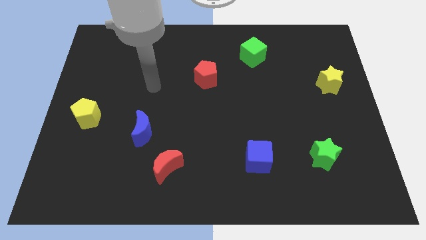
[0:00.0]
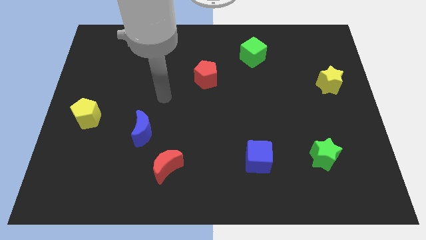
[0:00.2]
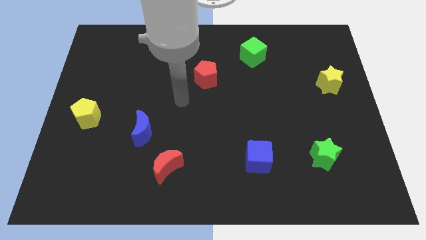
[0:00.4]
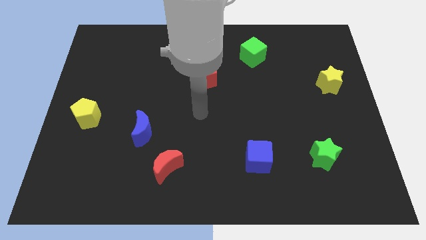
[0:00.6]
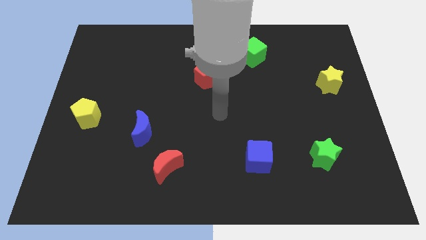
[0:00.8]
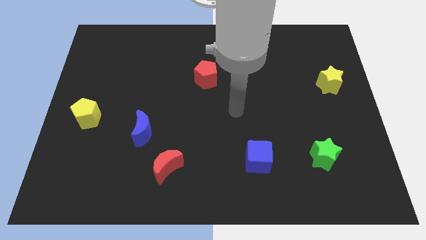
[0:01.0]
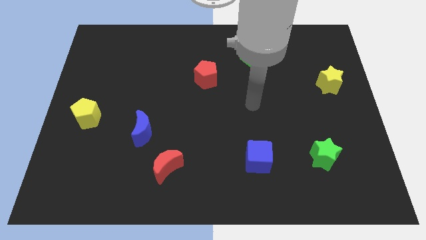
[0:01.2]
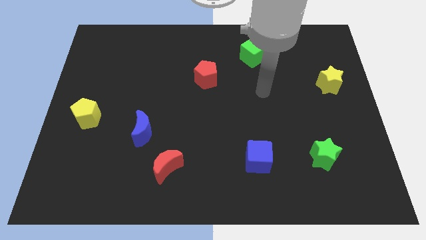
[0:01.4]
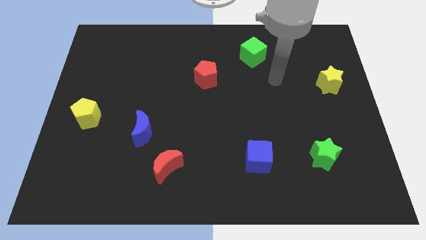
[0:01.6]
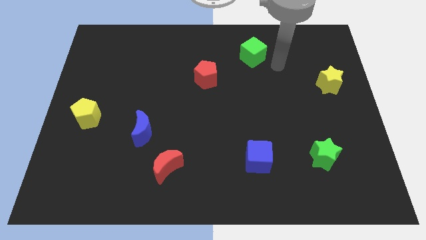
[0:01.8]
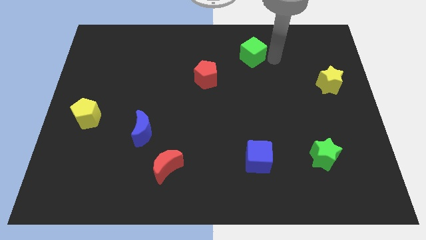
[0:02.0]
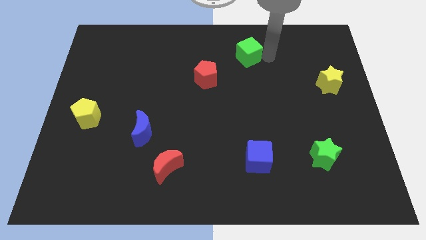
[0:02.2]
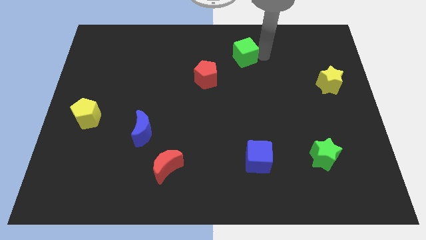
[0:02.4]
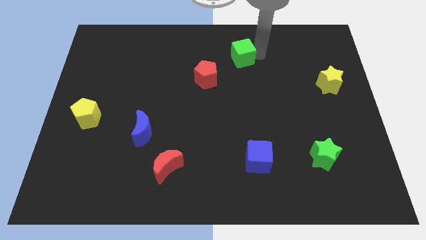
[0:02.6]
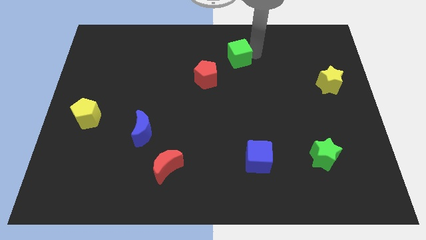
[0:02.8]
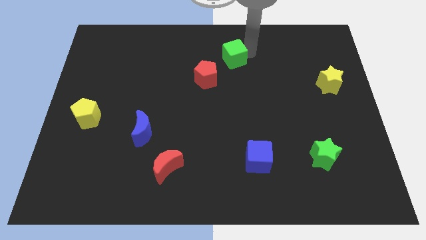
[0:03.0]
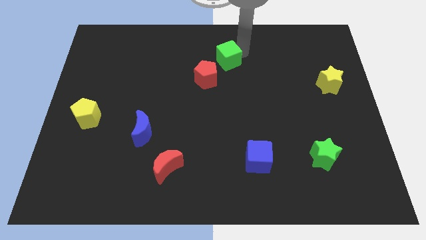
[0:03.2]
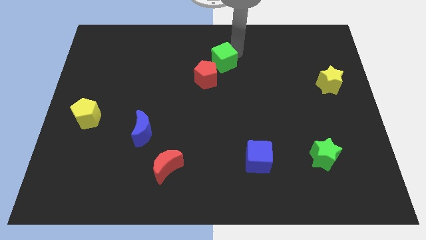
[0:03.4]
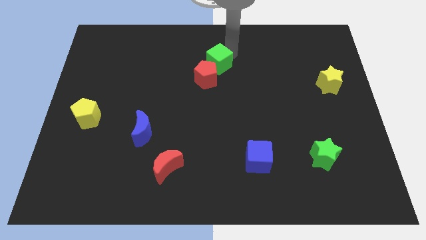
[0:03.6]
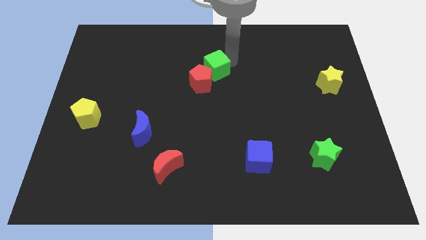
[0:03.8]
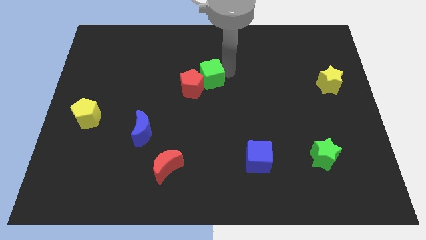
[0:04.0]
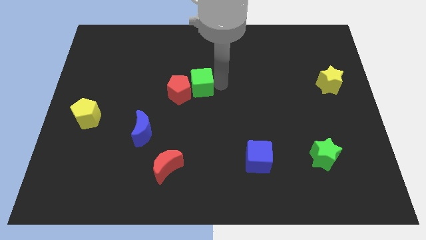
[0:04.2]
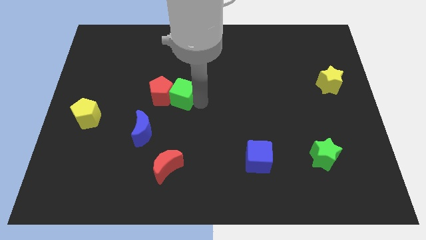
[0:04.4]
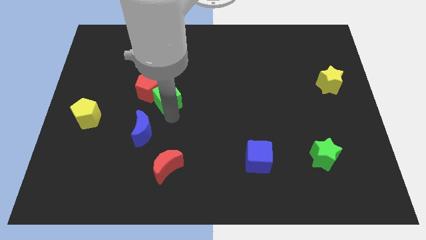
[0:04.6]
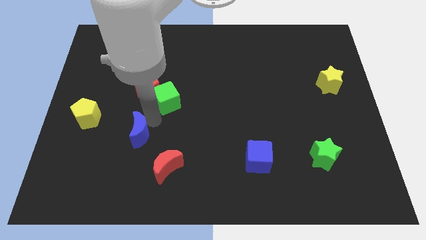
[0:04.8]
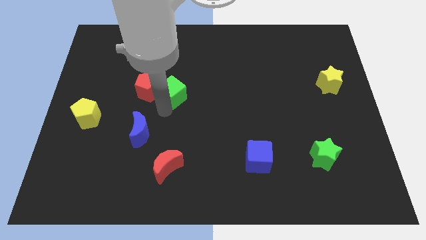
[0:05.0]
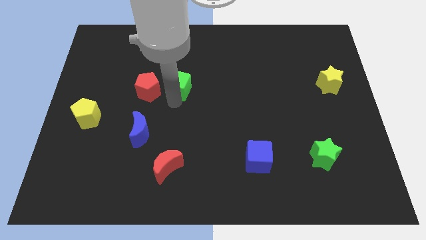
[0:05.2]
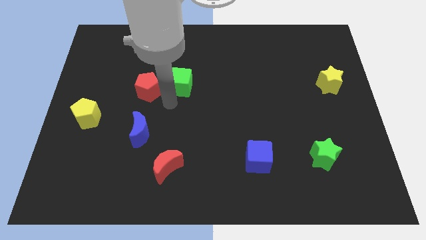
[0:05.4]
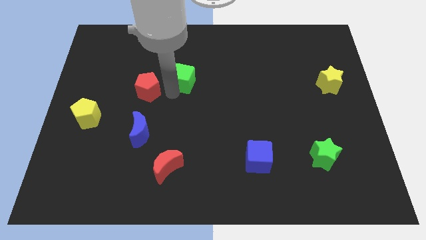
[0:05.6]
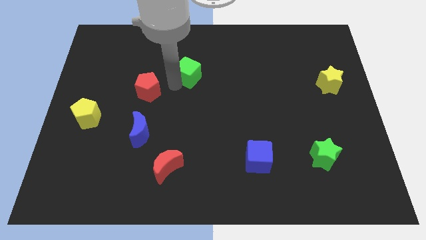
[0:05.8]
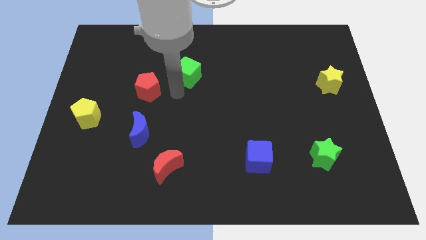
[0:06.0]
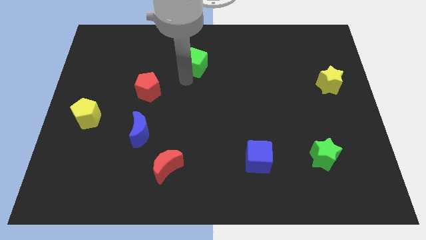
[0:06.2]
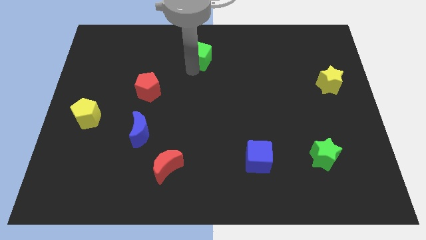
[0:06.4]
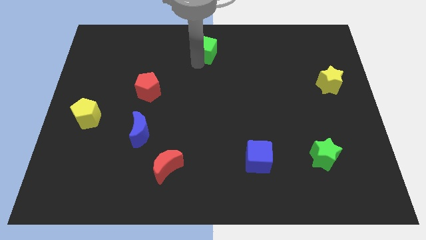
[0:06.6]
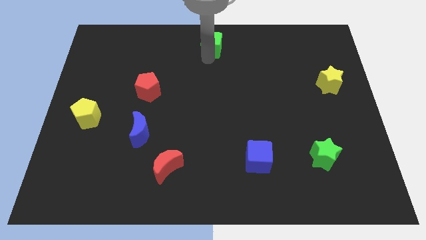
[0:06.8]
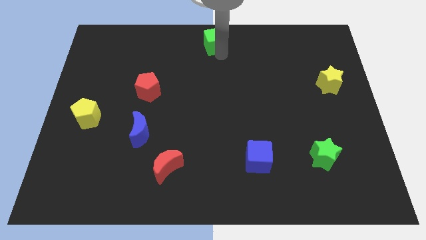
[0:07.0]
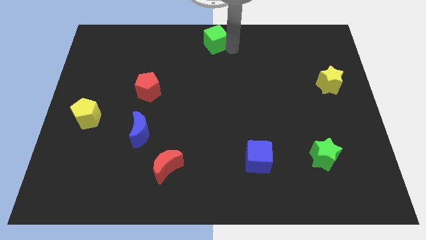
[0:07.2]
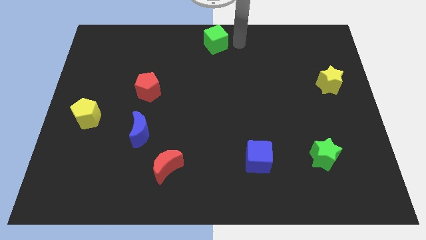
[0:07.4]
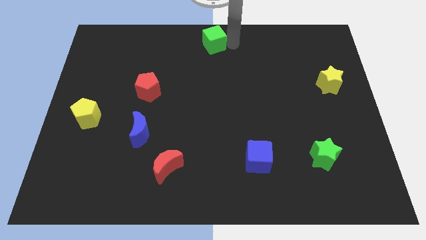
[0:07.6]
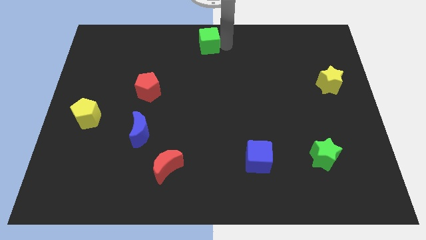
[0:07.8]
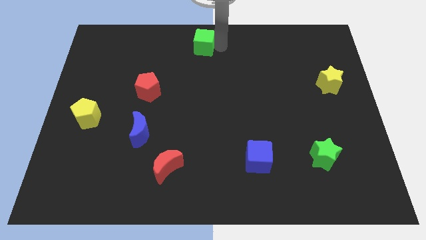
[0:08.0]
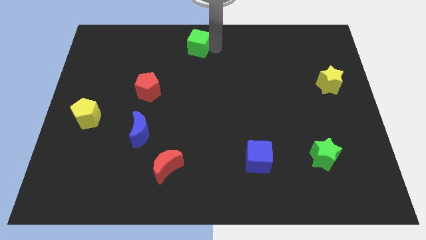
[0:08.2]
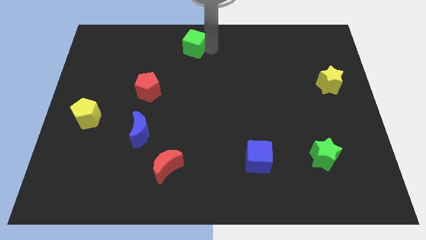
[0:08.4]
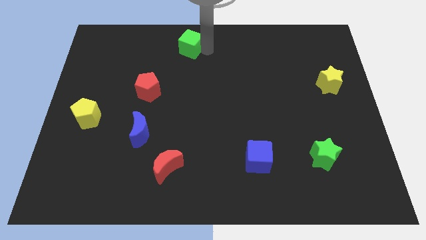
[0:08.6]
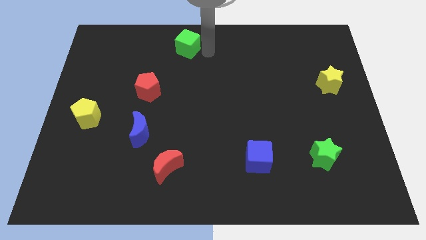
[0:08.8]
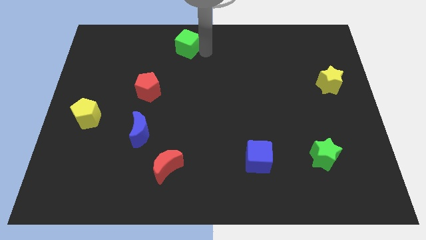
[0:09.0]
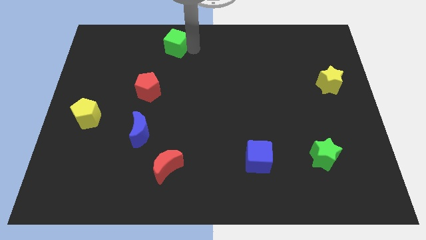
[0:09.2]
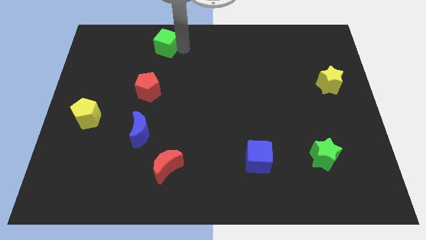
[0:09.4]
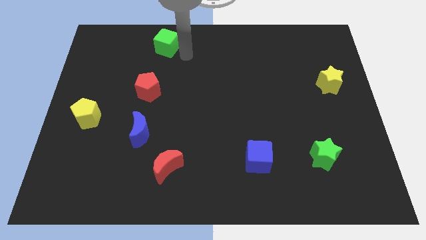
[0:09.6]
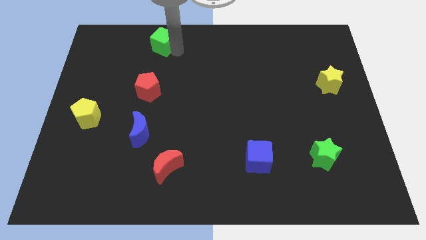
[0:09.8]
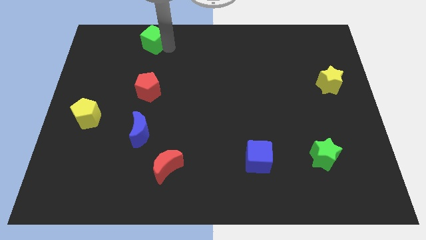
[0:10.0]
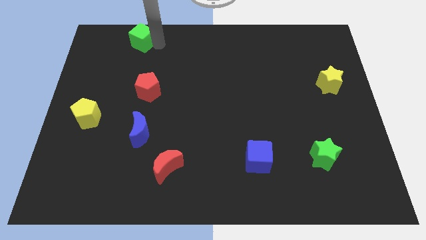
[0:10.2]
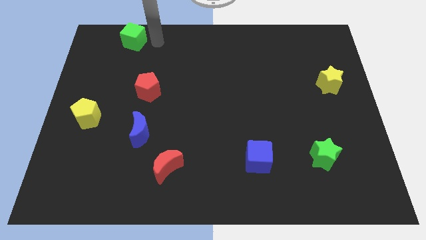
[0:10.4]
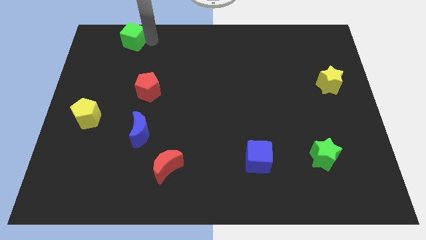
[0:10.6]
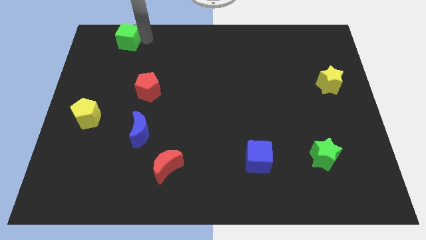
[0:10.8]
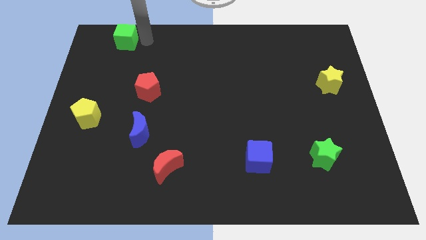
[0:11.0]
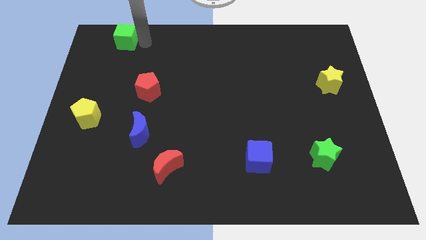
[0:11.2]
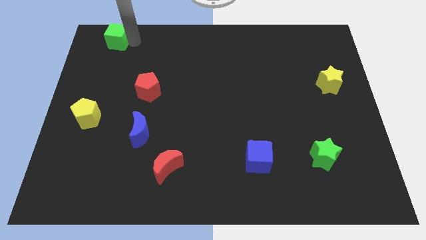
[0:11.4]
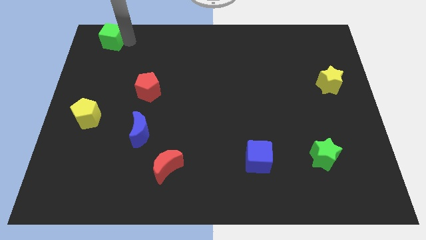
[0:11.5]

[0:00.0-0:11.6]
put the green cube to the top left corner

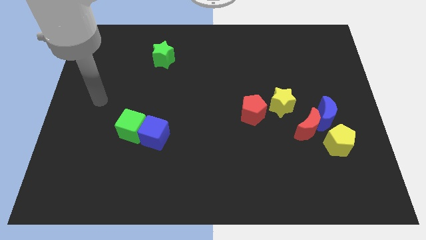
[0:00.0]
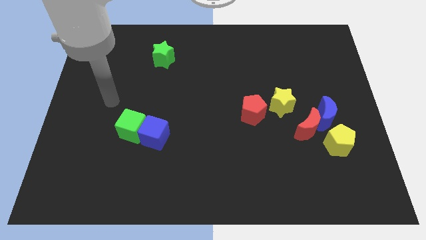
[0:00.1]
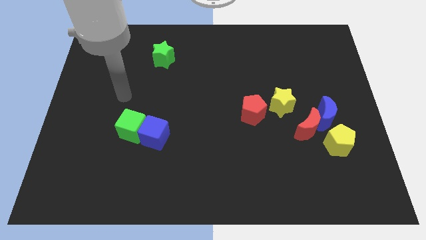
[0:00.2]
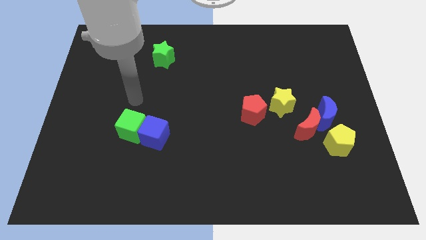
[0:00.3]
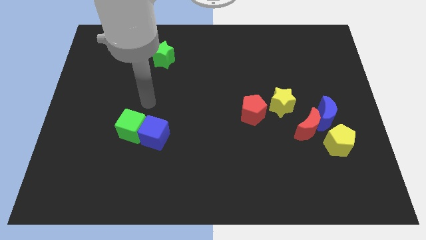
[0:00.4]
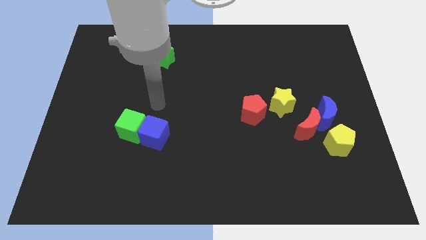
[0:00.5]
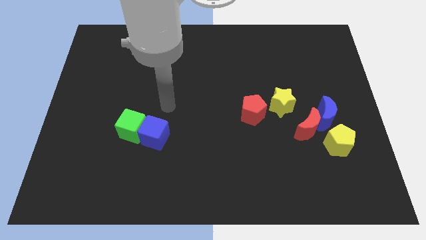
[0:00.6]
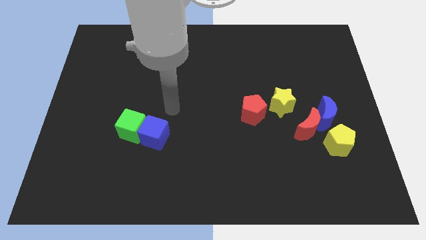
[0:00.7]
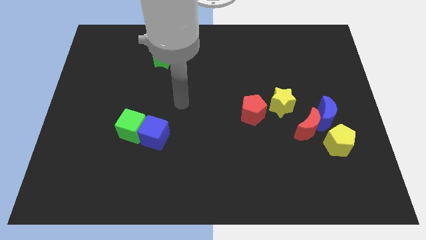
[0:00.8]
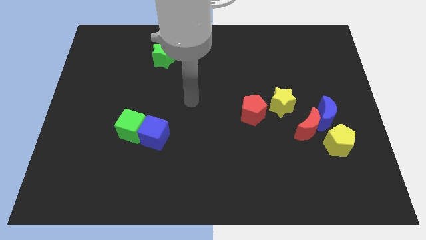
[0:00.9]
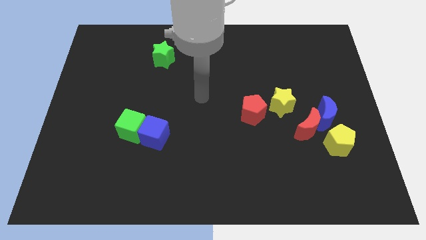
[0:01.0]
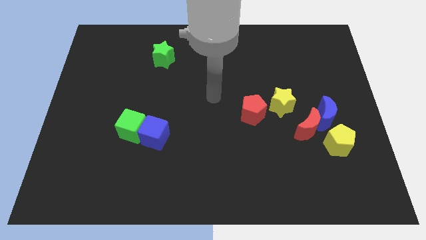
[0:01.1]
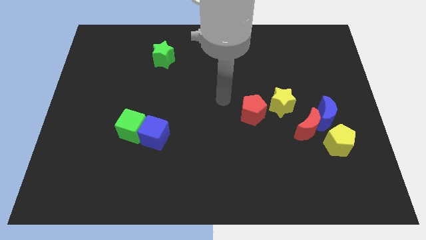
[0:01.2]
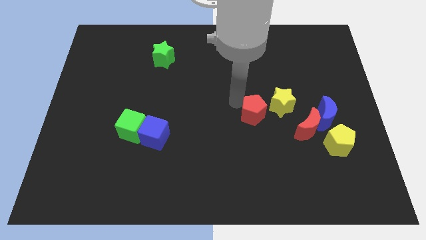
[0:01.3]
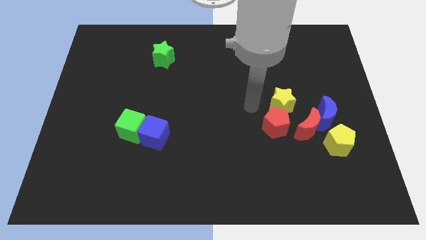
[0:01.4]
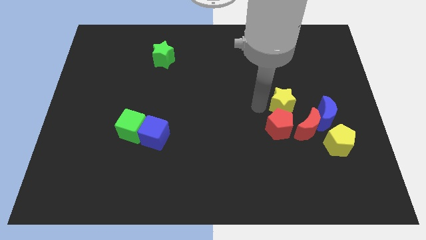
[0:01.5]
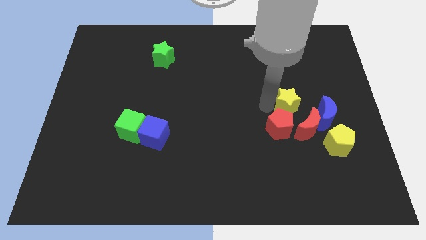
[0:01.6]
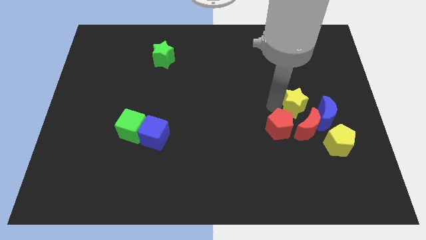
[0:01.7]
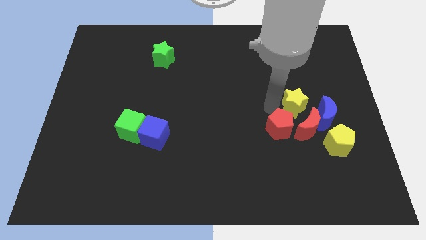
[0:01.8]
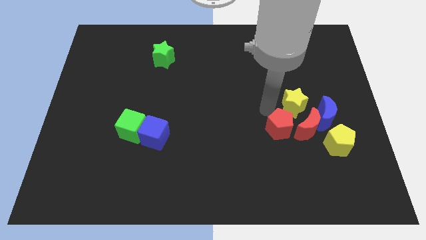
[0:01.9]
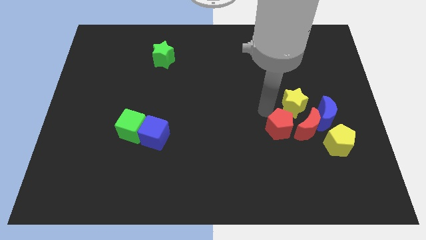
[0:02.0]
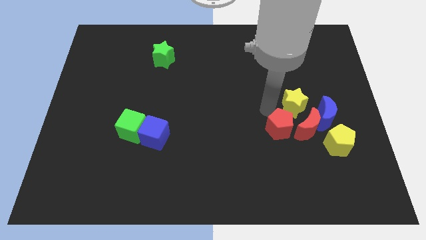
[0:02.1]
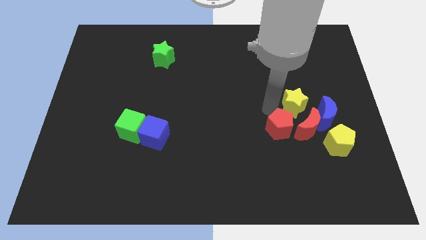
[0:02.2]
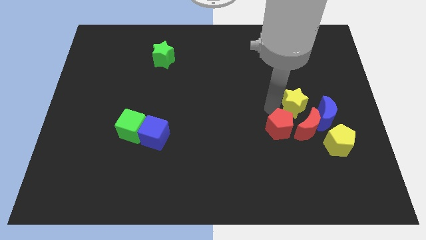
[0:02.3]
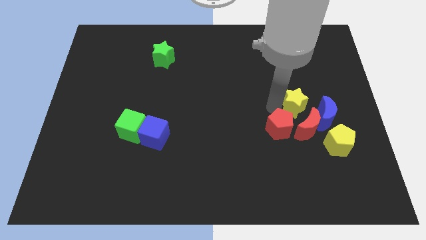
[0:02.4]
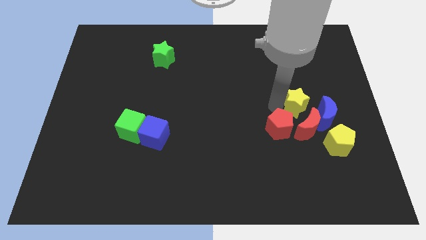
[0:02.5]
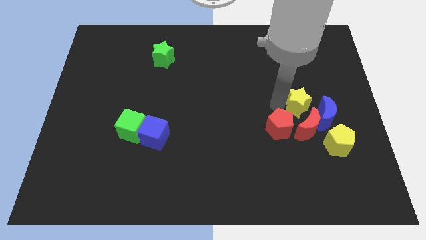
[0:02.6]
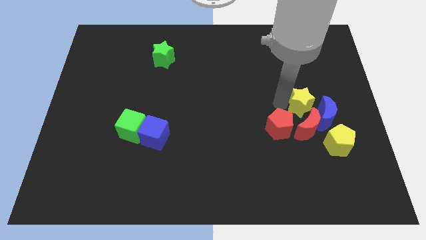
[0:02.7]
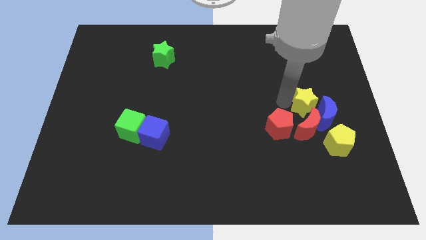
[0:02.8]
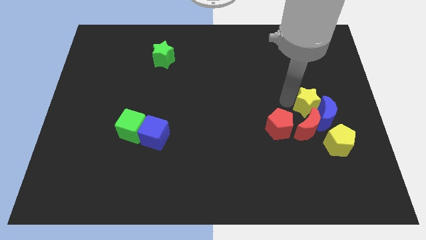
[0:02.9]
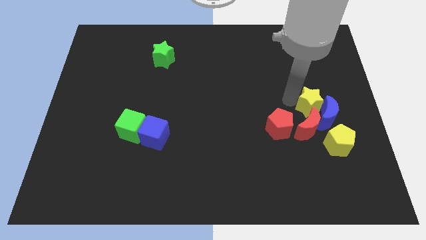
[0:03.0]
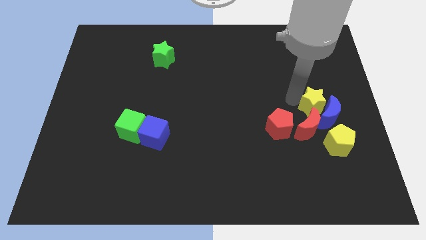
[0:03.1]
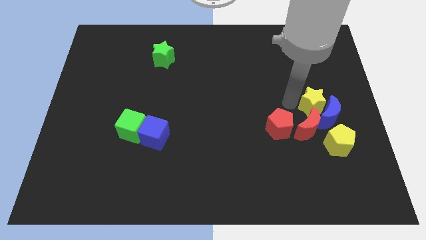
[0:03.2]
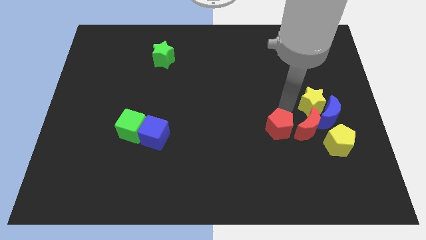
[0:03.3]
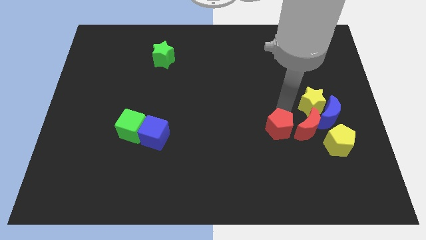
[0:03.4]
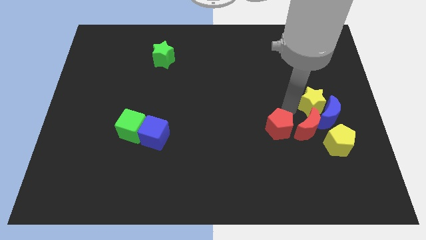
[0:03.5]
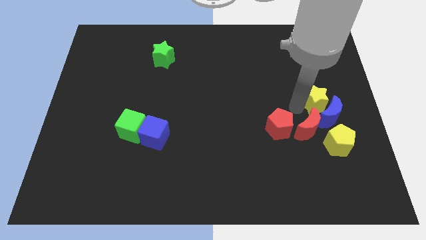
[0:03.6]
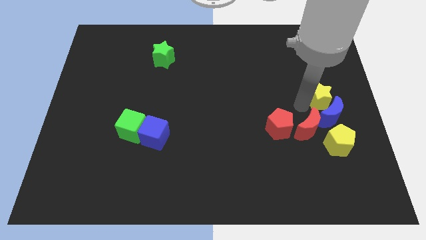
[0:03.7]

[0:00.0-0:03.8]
put the yellow star to the center right
